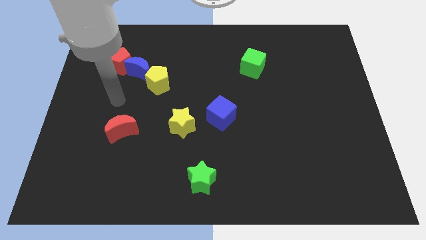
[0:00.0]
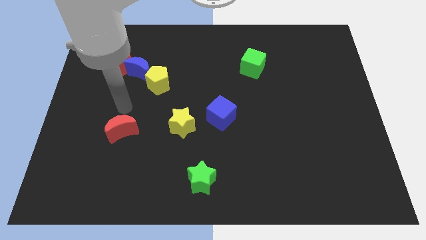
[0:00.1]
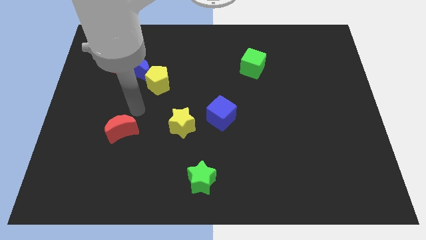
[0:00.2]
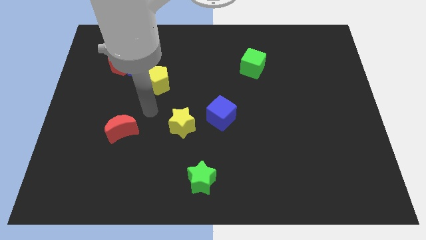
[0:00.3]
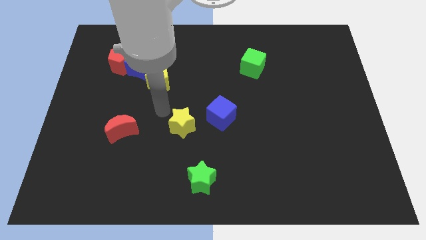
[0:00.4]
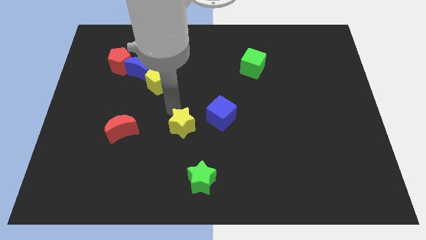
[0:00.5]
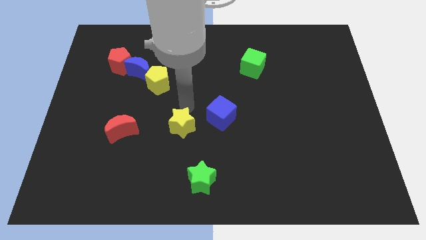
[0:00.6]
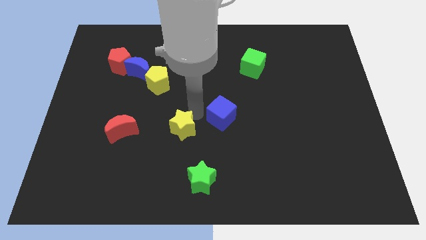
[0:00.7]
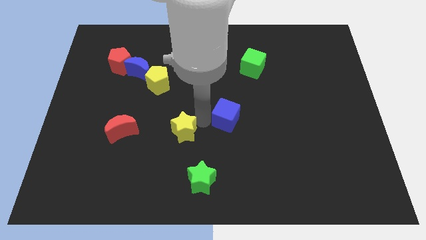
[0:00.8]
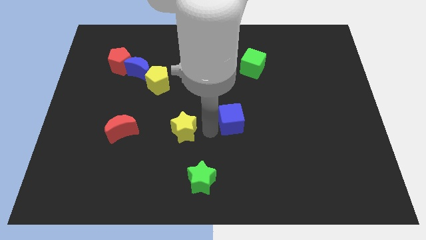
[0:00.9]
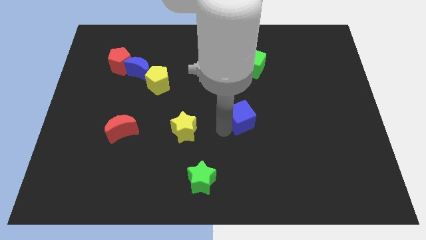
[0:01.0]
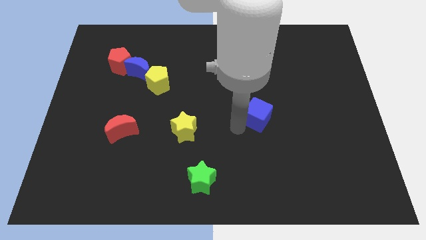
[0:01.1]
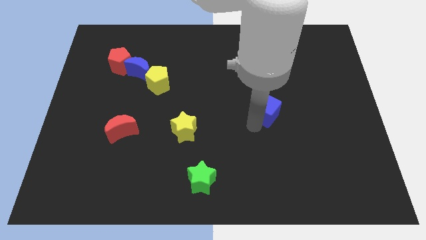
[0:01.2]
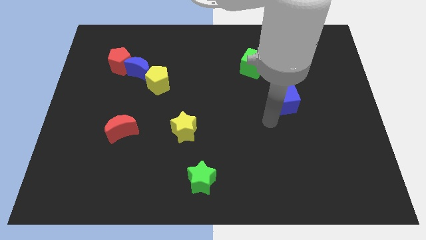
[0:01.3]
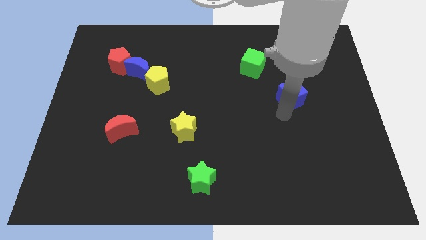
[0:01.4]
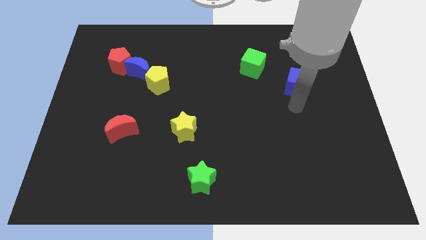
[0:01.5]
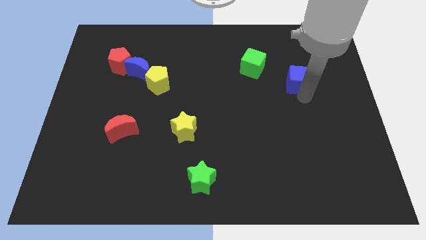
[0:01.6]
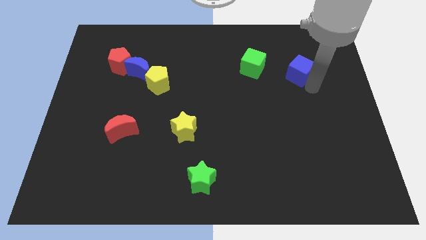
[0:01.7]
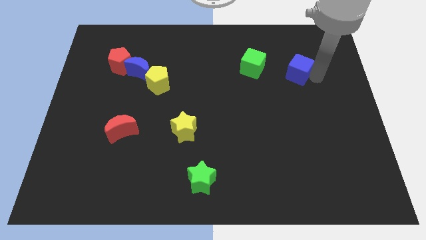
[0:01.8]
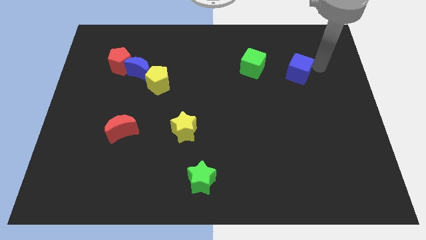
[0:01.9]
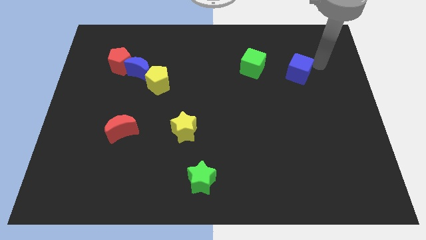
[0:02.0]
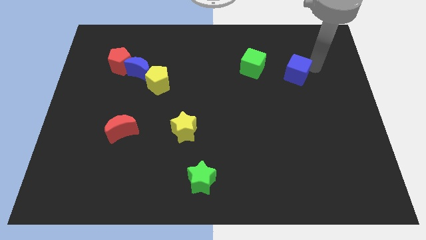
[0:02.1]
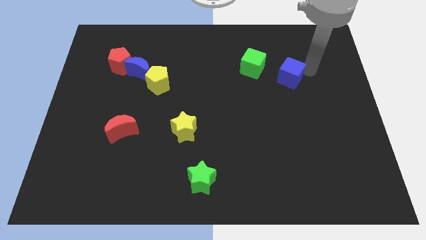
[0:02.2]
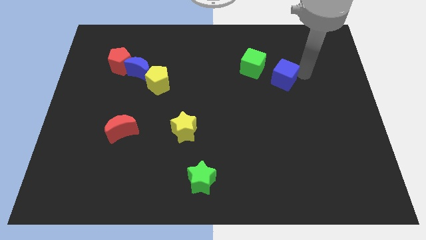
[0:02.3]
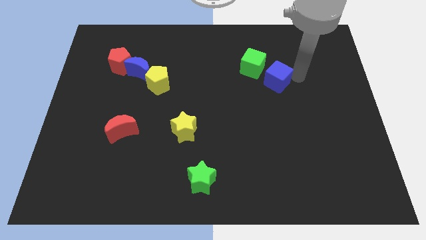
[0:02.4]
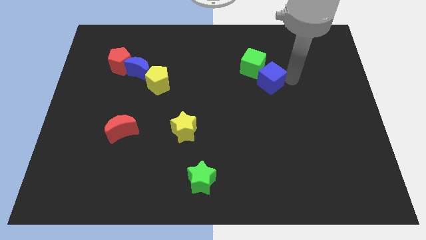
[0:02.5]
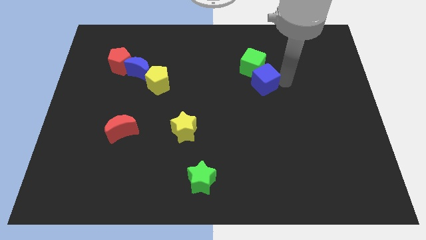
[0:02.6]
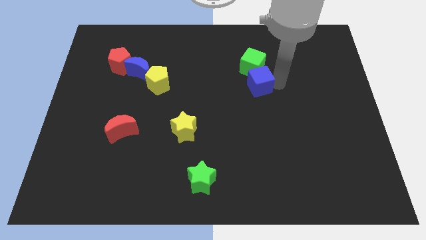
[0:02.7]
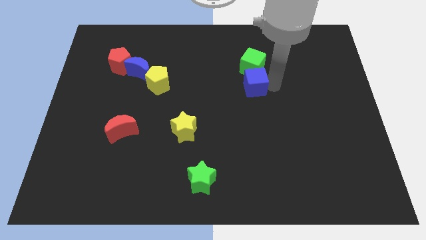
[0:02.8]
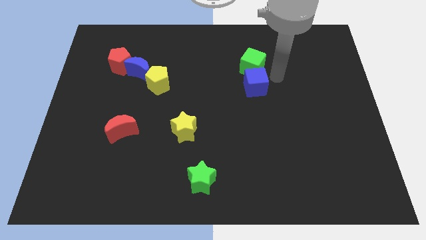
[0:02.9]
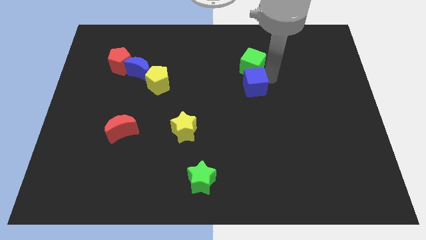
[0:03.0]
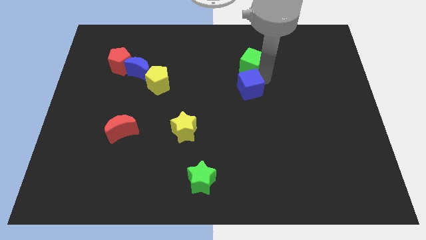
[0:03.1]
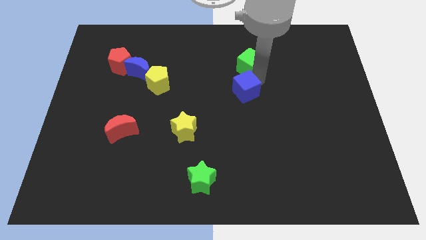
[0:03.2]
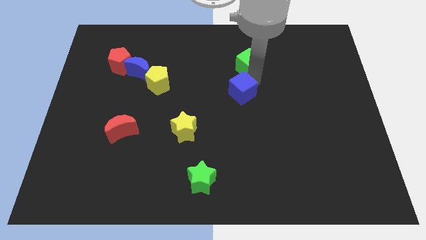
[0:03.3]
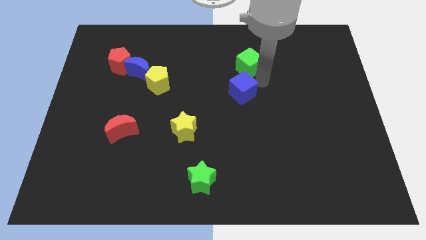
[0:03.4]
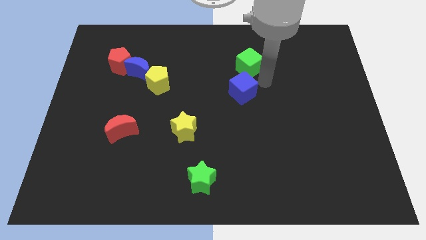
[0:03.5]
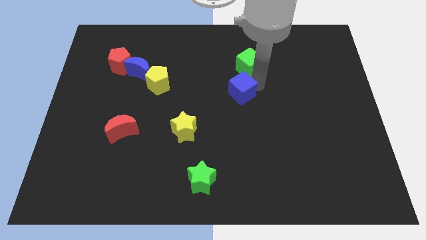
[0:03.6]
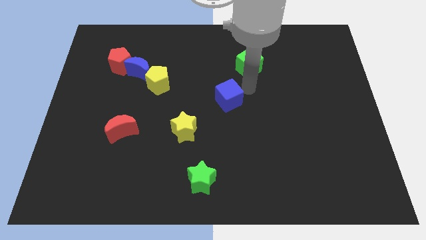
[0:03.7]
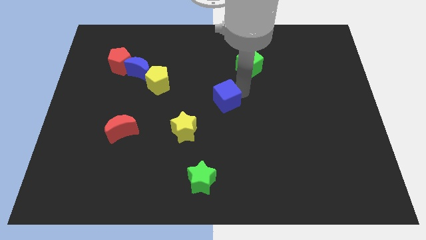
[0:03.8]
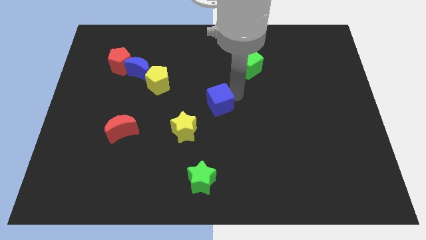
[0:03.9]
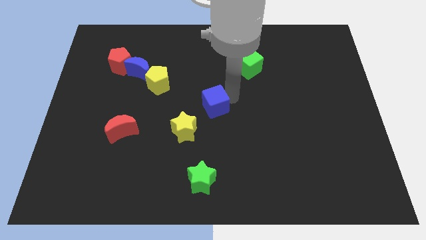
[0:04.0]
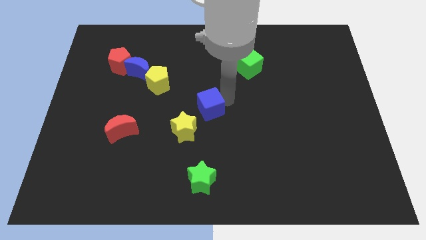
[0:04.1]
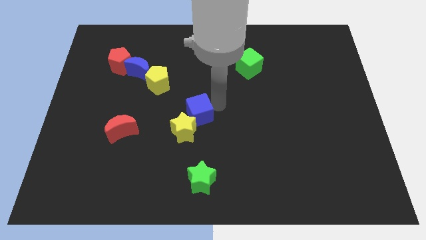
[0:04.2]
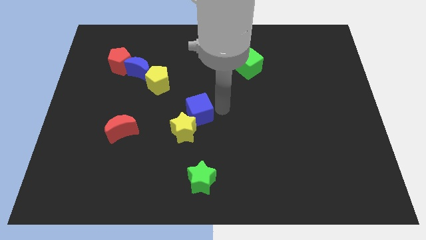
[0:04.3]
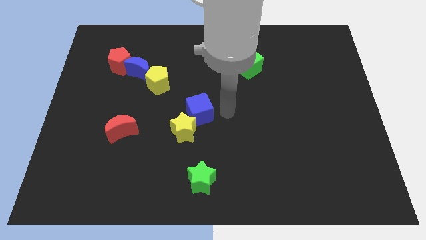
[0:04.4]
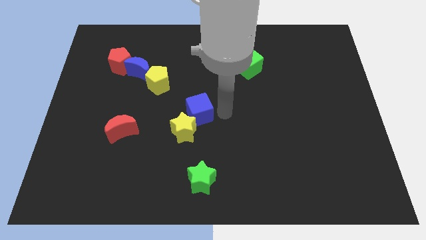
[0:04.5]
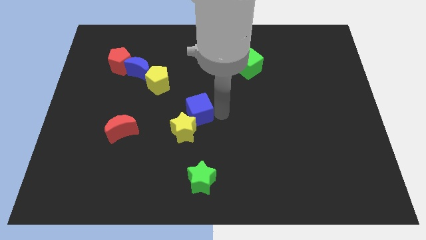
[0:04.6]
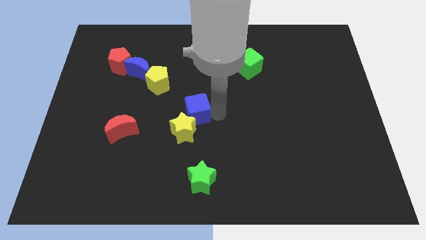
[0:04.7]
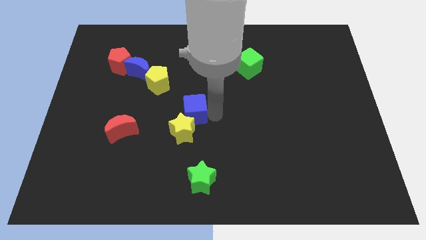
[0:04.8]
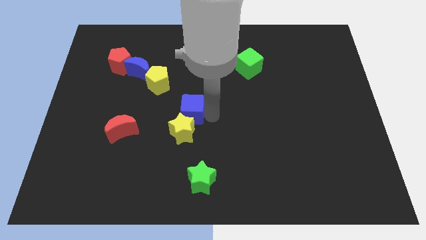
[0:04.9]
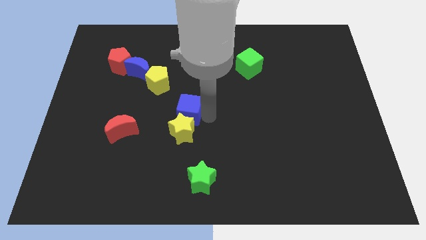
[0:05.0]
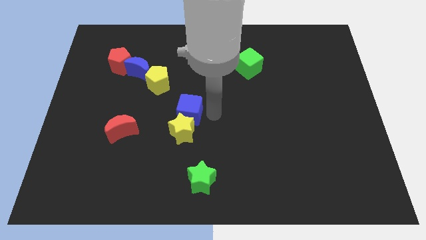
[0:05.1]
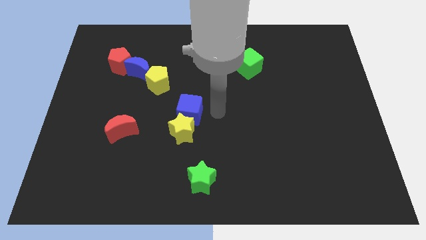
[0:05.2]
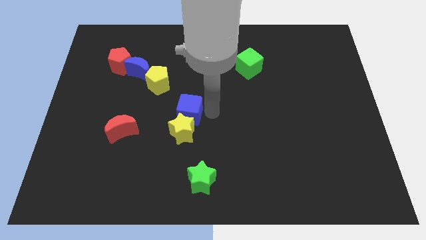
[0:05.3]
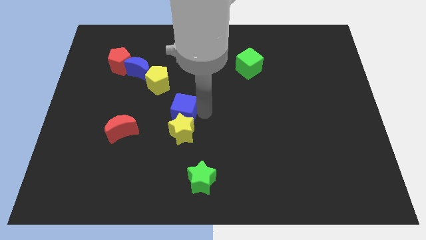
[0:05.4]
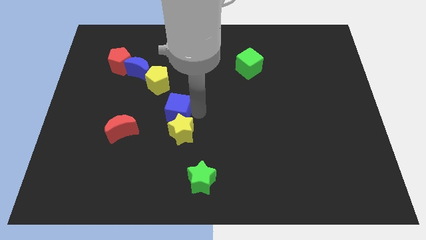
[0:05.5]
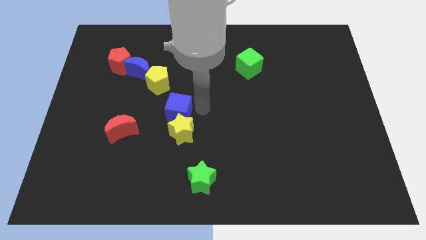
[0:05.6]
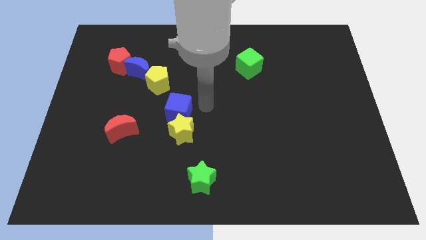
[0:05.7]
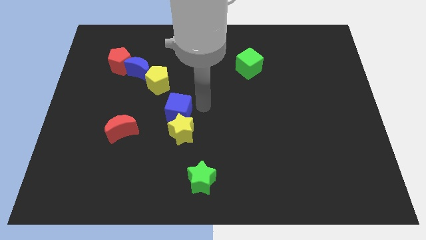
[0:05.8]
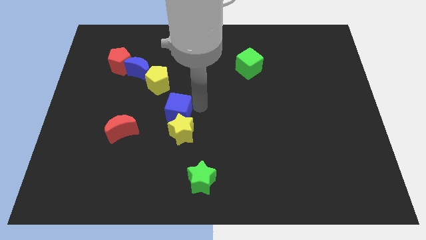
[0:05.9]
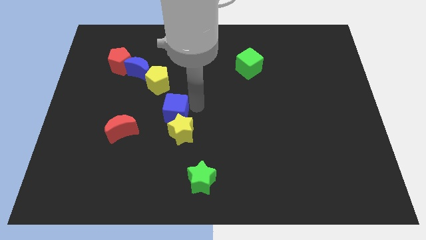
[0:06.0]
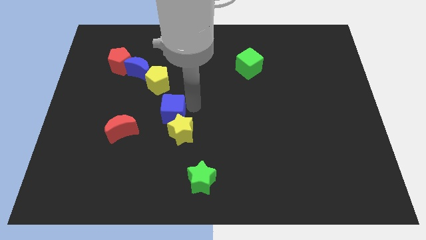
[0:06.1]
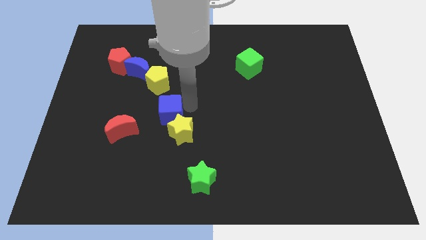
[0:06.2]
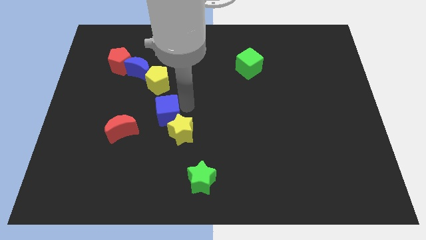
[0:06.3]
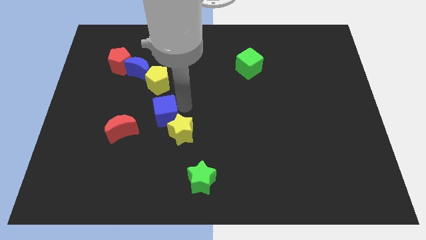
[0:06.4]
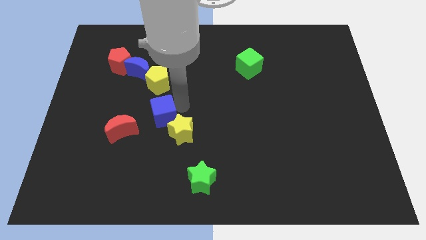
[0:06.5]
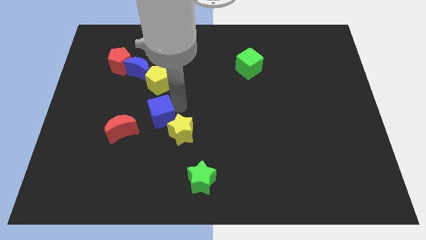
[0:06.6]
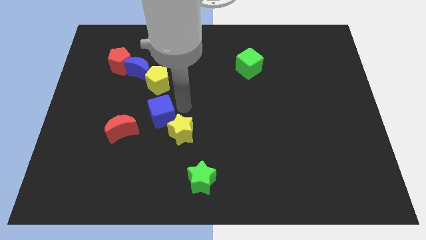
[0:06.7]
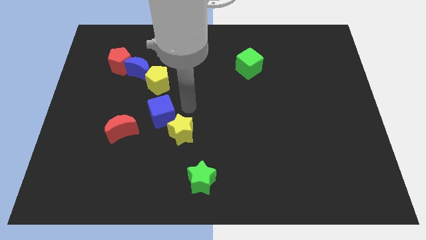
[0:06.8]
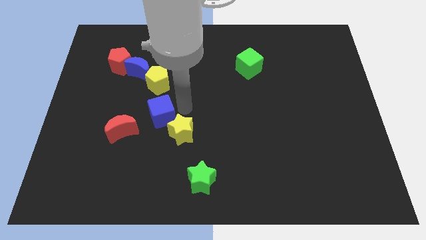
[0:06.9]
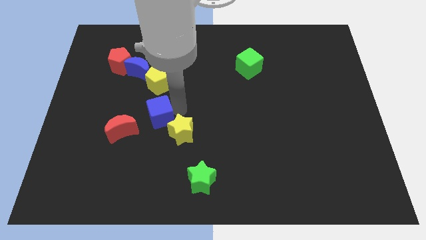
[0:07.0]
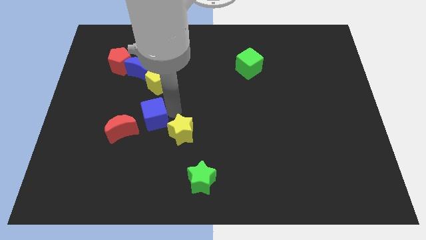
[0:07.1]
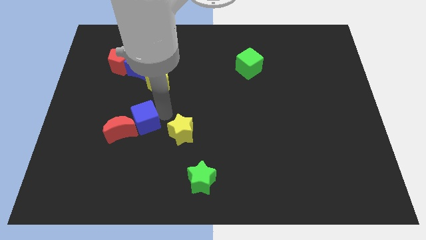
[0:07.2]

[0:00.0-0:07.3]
slide the blue cube close to the red moon
